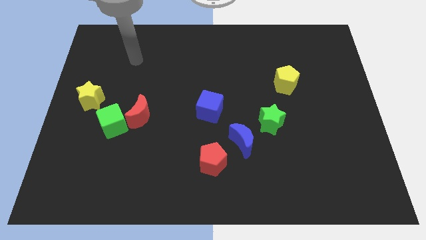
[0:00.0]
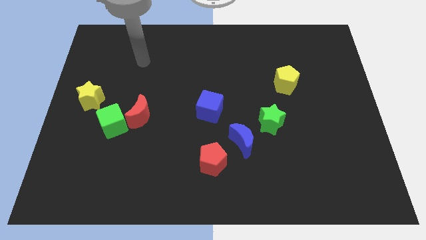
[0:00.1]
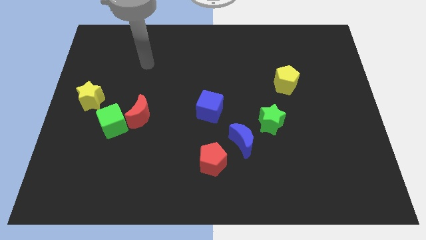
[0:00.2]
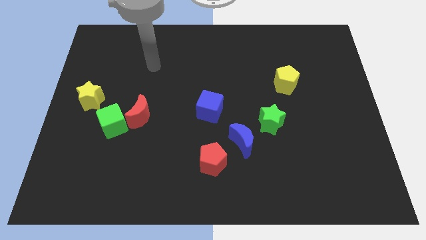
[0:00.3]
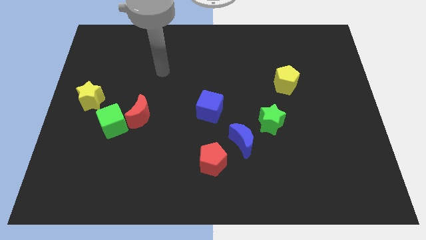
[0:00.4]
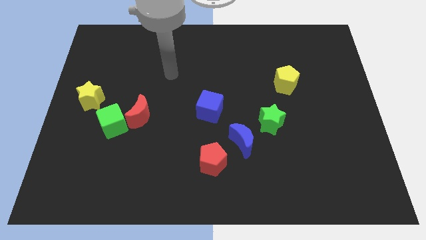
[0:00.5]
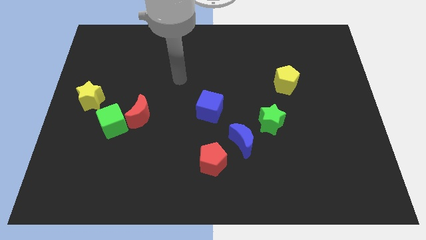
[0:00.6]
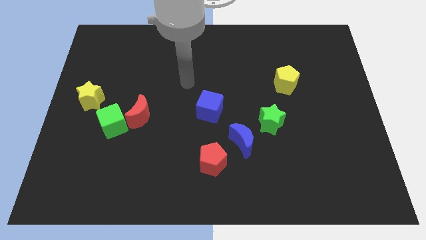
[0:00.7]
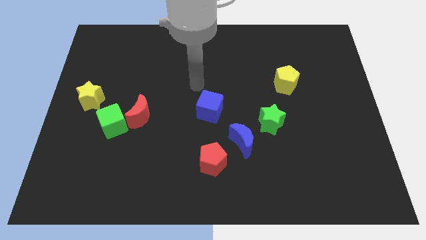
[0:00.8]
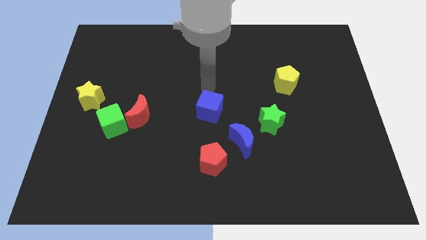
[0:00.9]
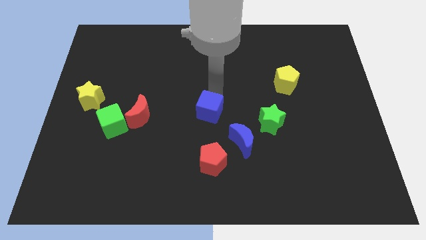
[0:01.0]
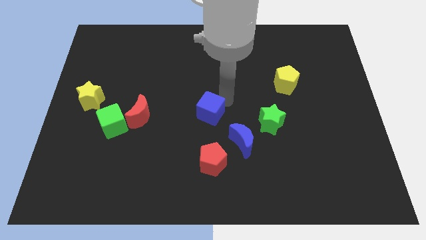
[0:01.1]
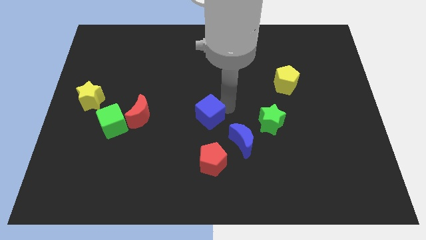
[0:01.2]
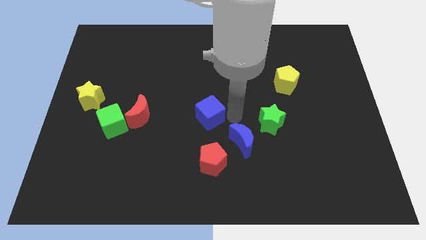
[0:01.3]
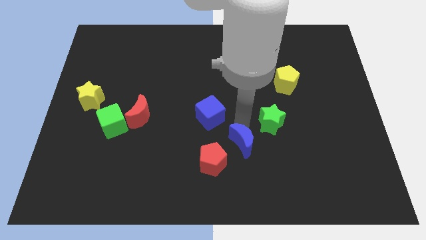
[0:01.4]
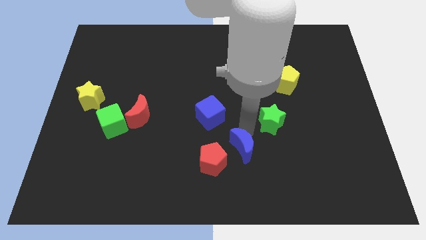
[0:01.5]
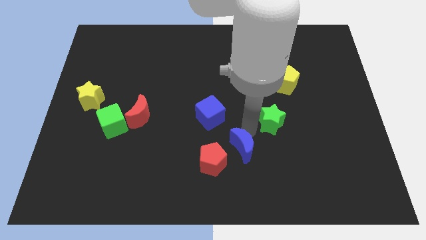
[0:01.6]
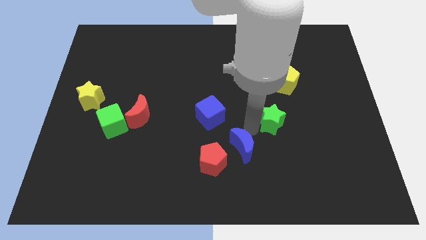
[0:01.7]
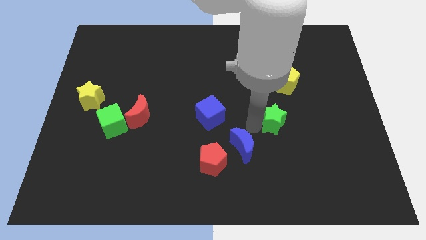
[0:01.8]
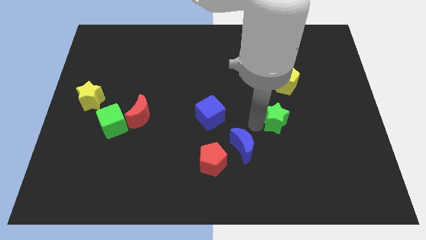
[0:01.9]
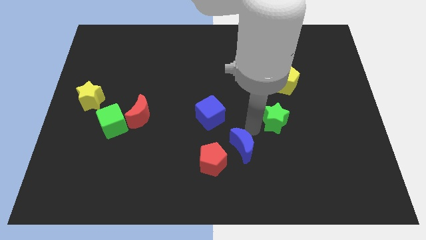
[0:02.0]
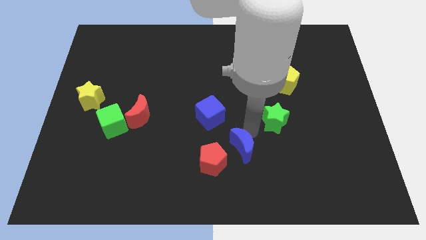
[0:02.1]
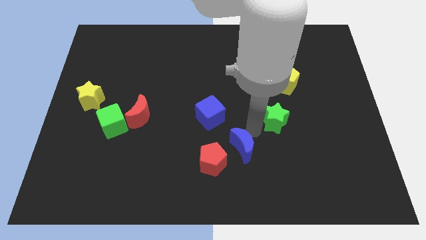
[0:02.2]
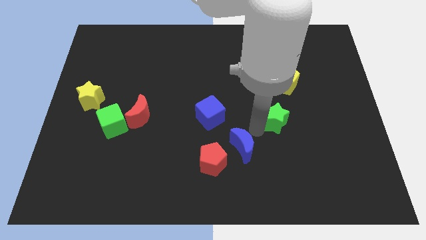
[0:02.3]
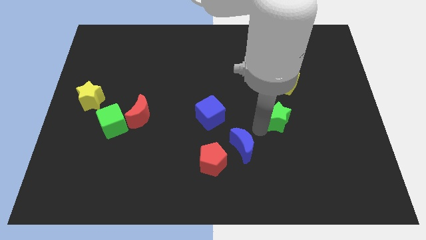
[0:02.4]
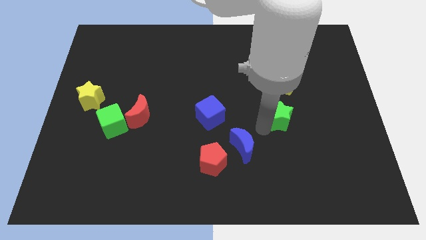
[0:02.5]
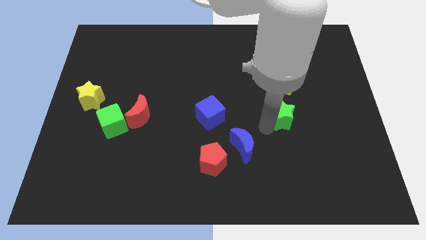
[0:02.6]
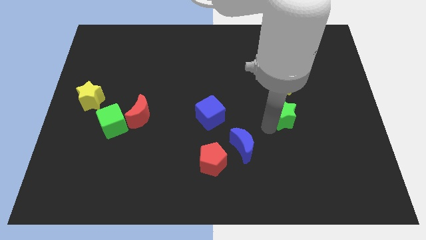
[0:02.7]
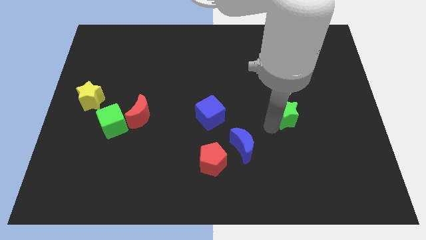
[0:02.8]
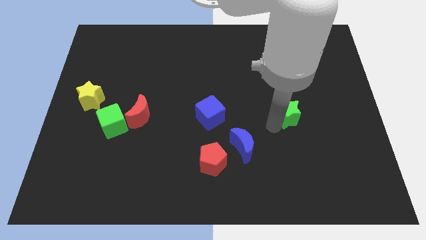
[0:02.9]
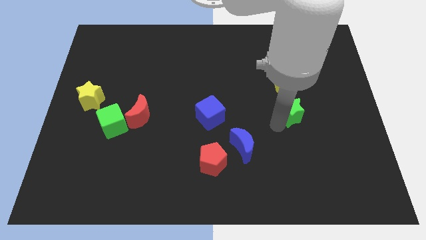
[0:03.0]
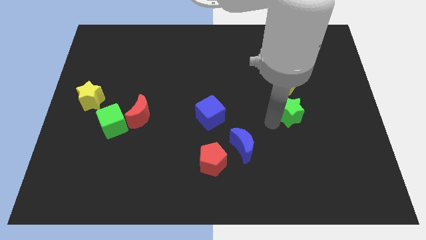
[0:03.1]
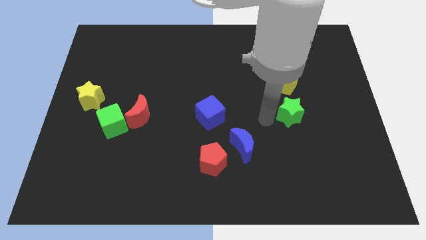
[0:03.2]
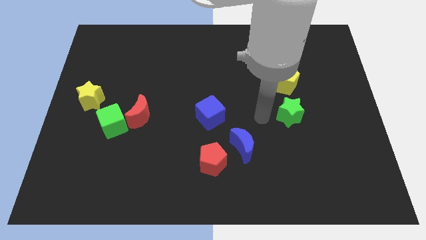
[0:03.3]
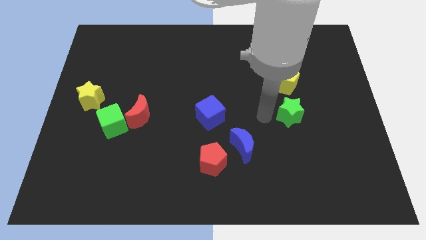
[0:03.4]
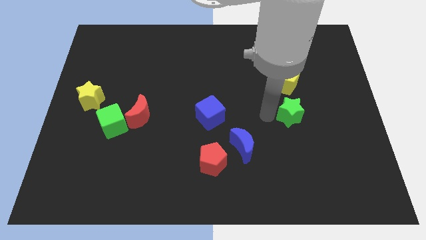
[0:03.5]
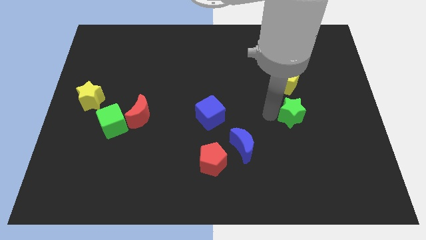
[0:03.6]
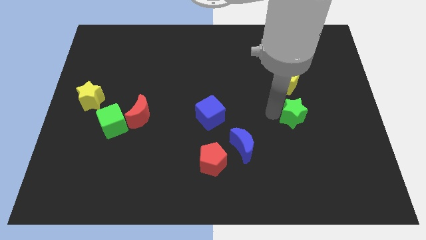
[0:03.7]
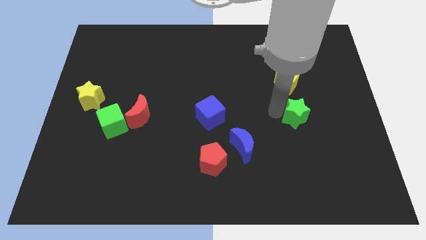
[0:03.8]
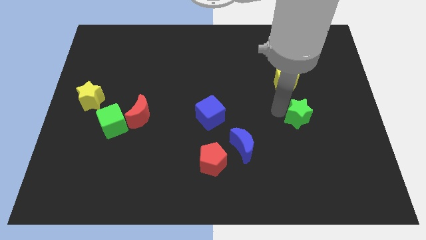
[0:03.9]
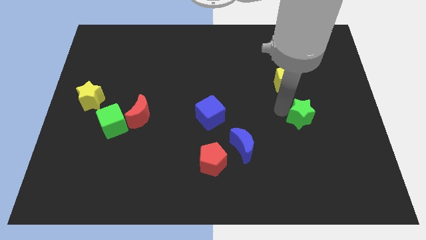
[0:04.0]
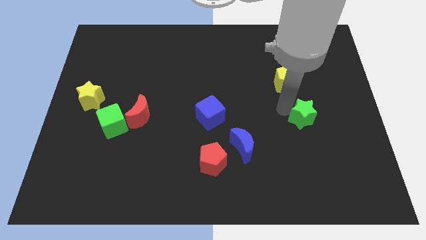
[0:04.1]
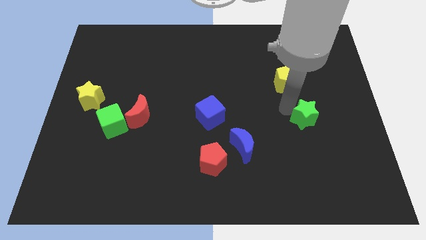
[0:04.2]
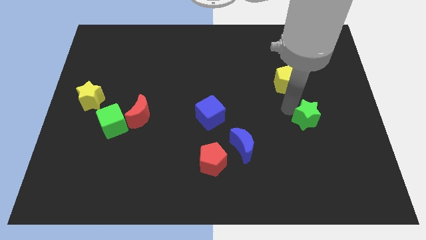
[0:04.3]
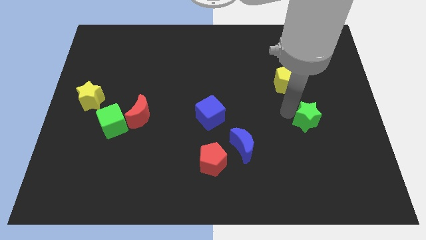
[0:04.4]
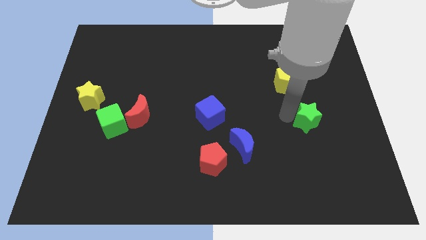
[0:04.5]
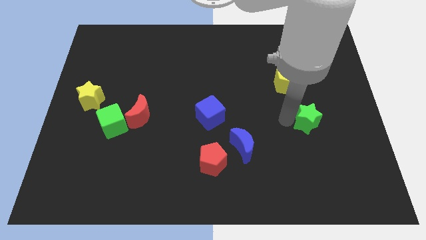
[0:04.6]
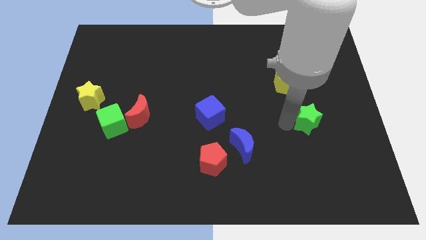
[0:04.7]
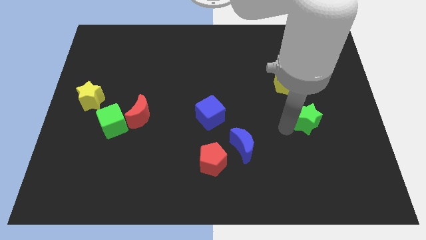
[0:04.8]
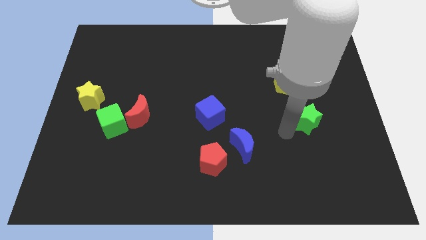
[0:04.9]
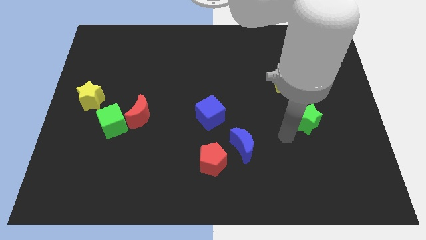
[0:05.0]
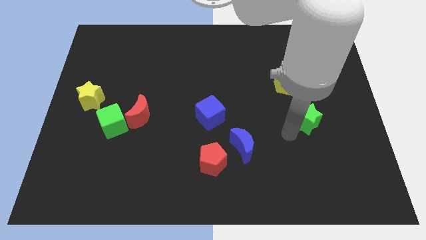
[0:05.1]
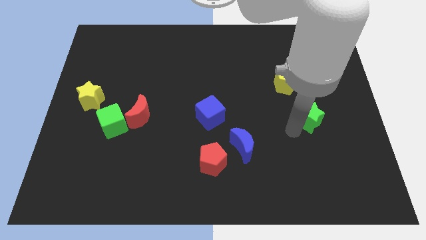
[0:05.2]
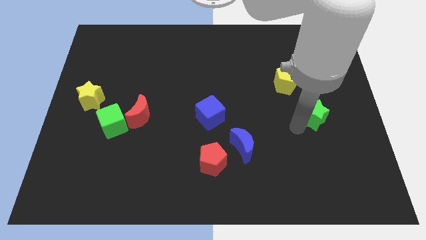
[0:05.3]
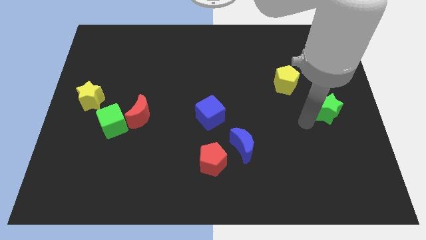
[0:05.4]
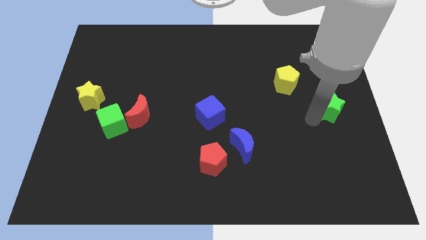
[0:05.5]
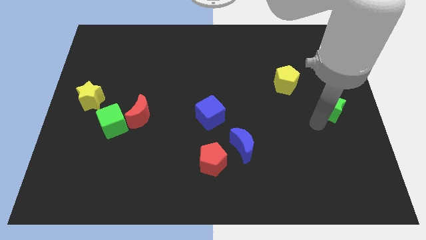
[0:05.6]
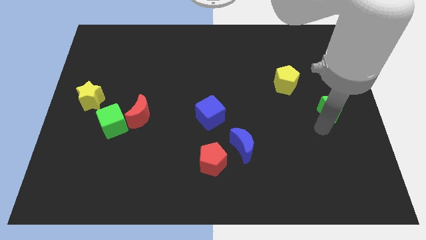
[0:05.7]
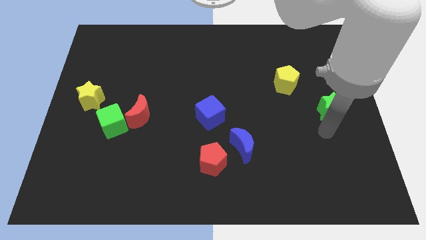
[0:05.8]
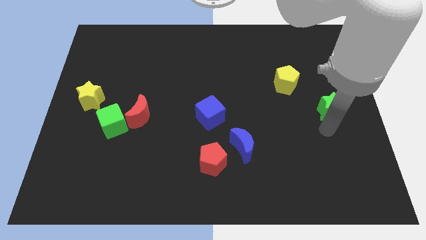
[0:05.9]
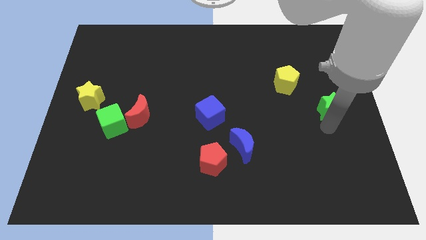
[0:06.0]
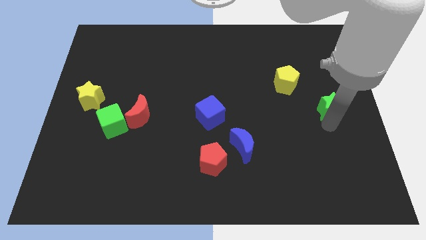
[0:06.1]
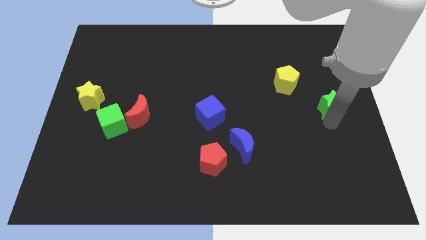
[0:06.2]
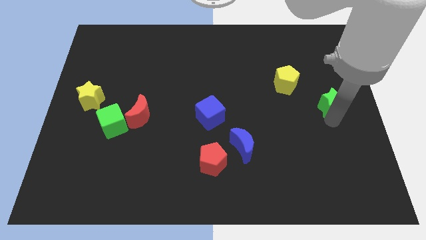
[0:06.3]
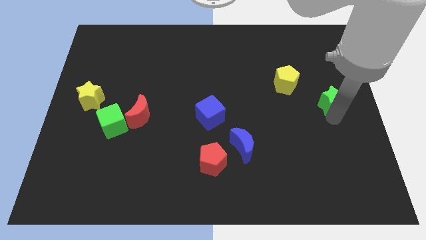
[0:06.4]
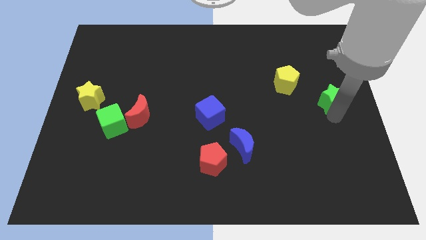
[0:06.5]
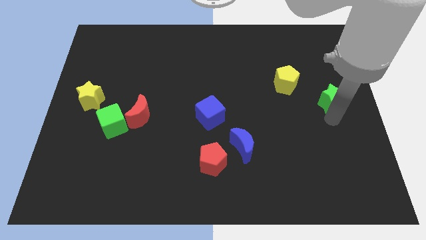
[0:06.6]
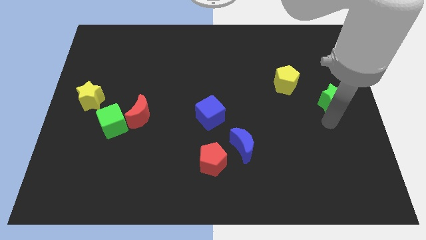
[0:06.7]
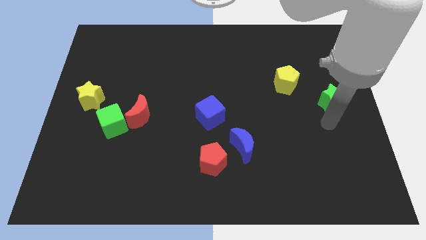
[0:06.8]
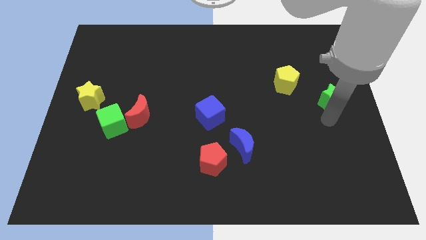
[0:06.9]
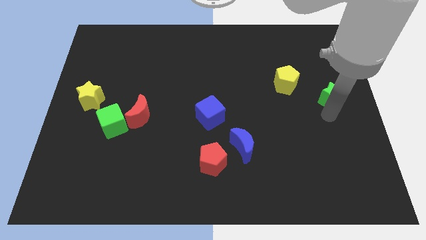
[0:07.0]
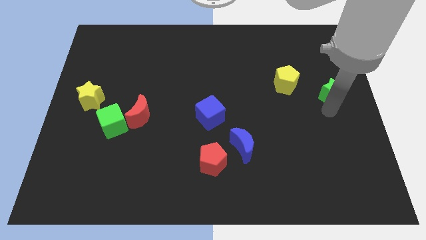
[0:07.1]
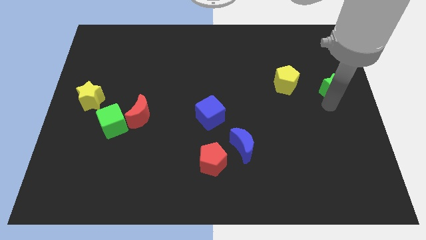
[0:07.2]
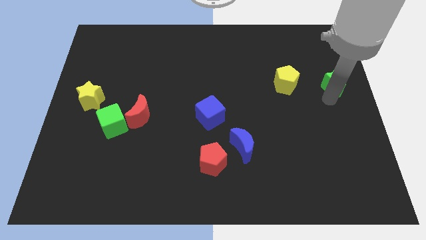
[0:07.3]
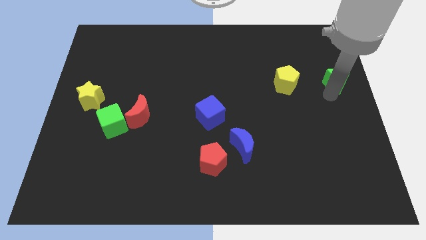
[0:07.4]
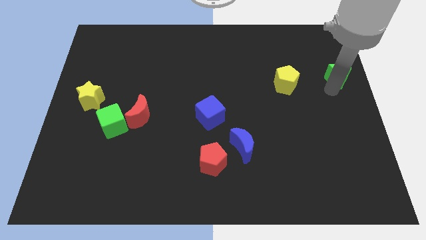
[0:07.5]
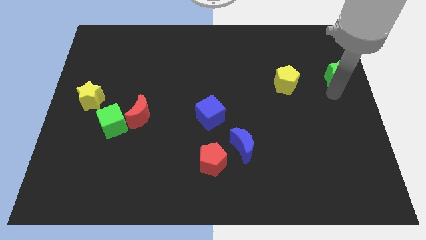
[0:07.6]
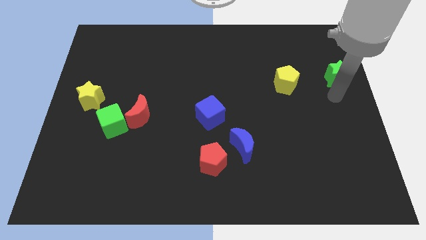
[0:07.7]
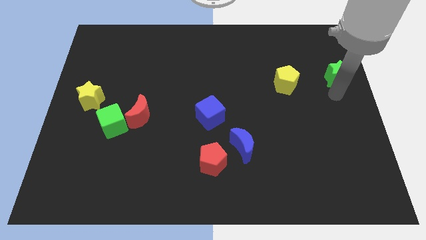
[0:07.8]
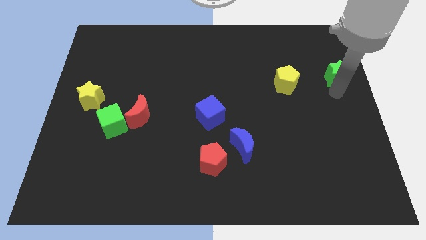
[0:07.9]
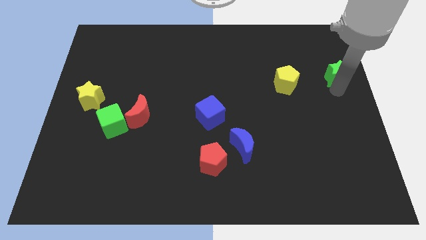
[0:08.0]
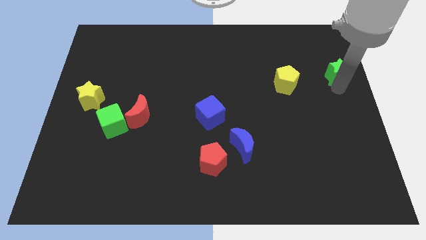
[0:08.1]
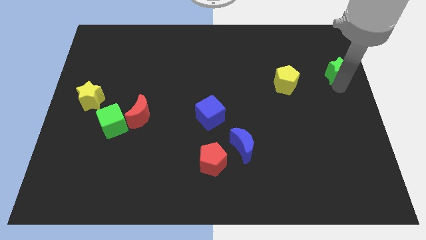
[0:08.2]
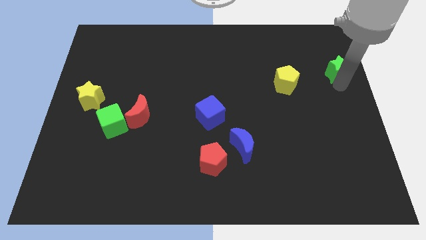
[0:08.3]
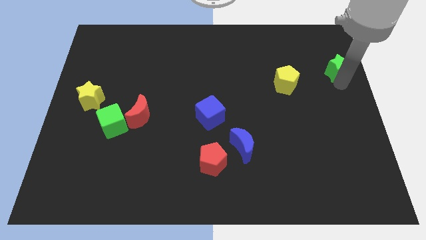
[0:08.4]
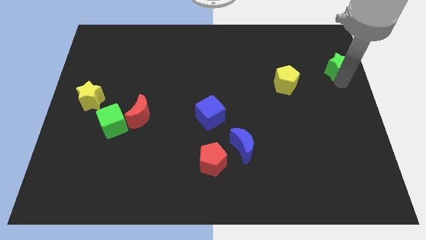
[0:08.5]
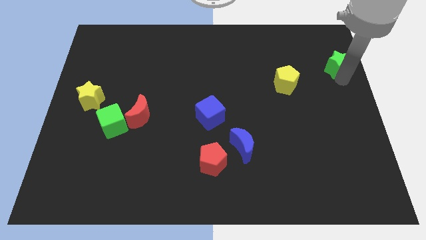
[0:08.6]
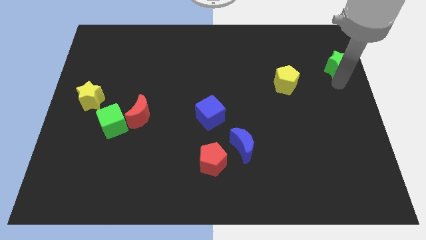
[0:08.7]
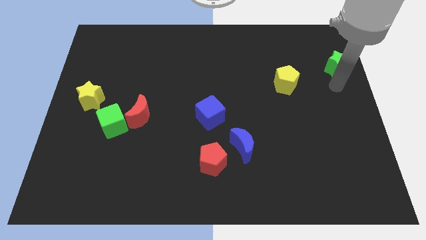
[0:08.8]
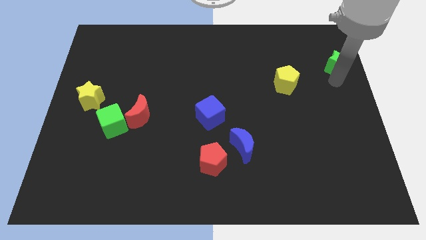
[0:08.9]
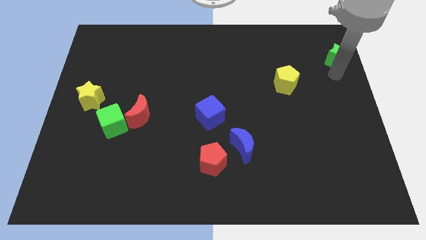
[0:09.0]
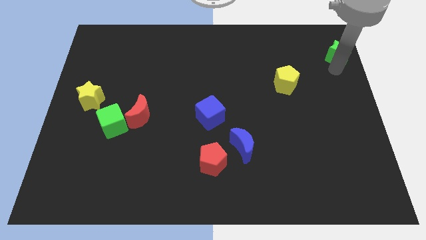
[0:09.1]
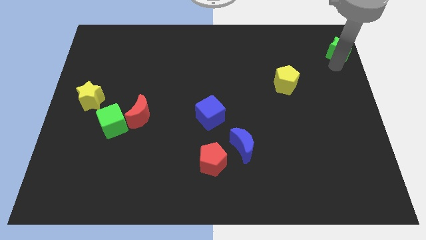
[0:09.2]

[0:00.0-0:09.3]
slide the green star to the upper right corner
